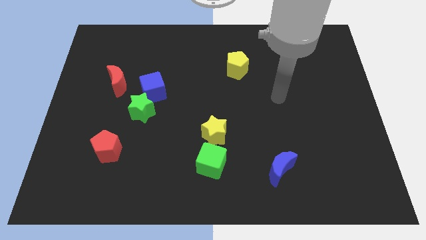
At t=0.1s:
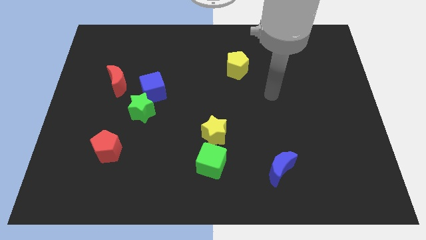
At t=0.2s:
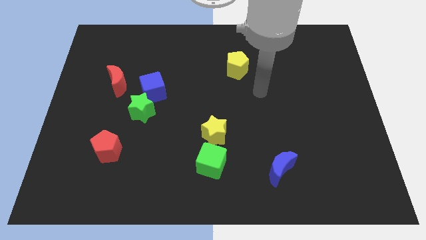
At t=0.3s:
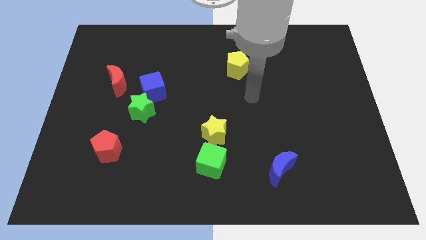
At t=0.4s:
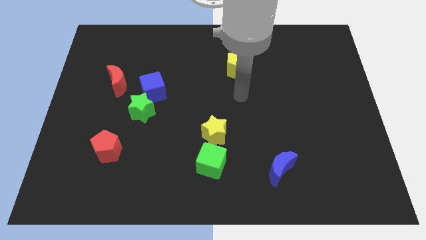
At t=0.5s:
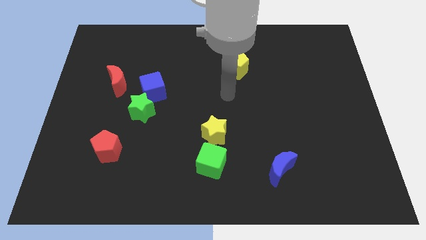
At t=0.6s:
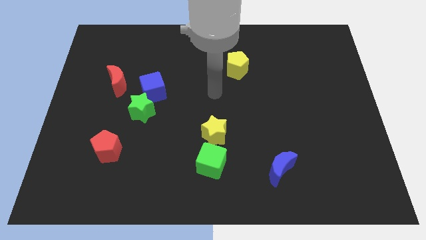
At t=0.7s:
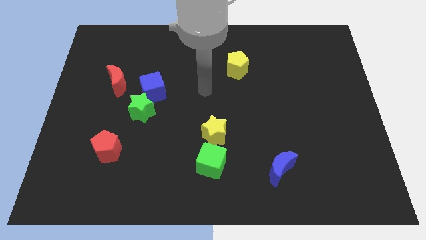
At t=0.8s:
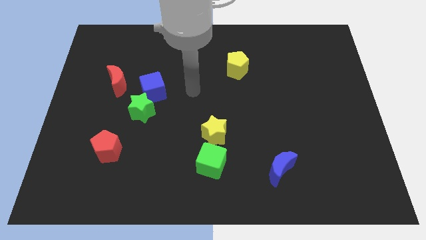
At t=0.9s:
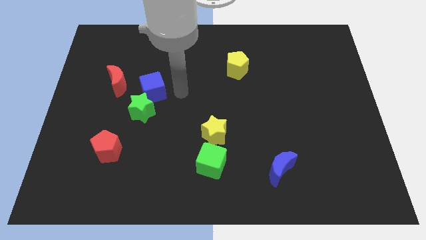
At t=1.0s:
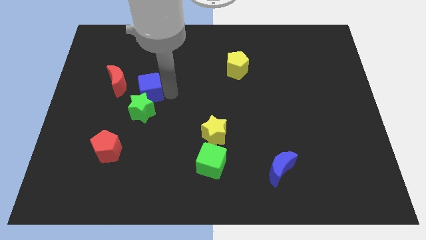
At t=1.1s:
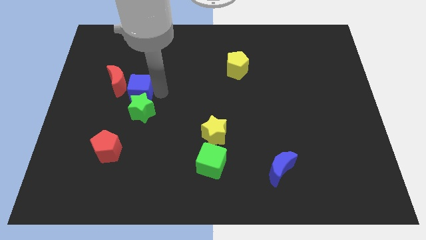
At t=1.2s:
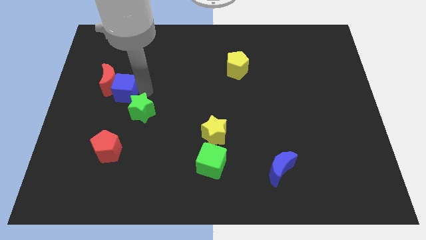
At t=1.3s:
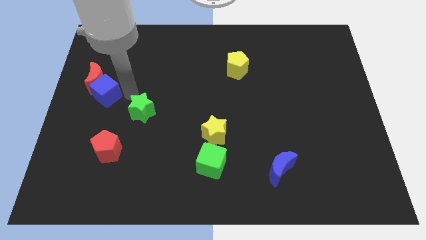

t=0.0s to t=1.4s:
move the green star away from the blue cube

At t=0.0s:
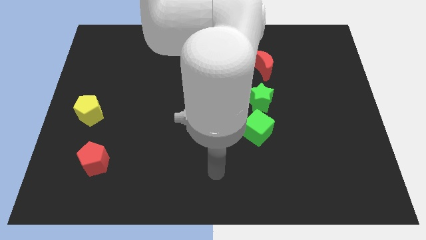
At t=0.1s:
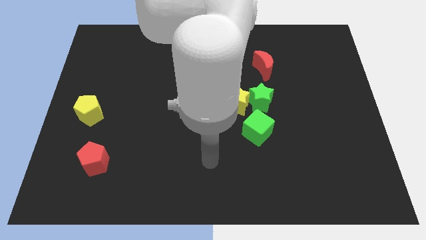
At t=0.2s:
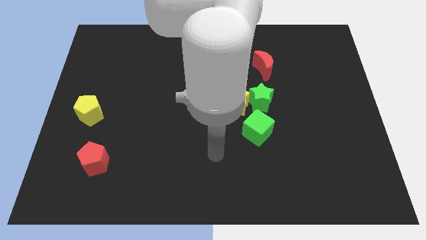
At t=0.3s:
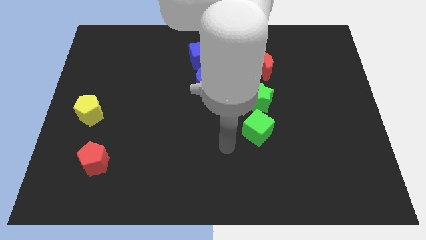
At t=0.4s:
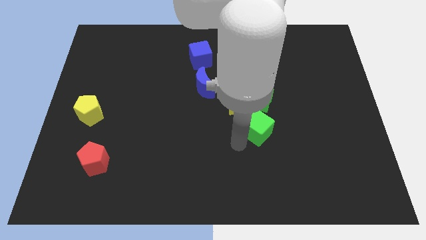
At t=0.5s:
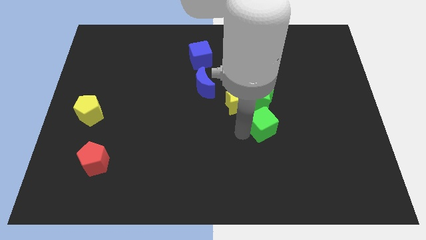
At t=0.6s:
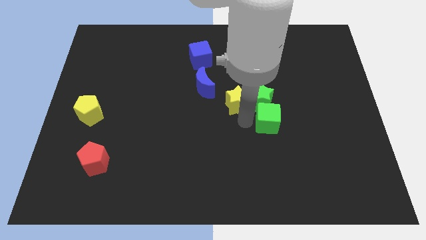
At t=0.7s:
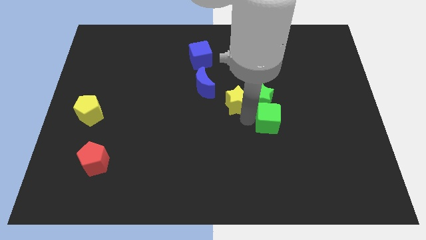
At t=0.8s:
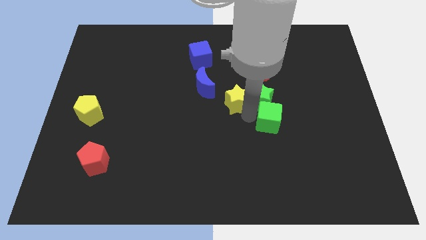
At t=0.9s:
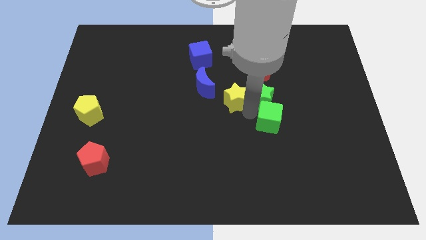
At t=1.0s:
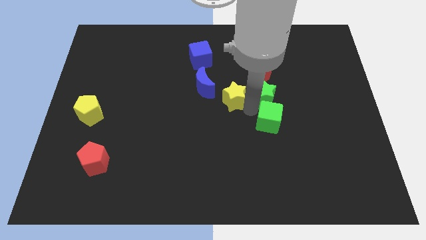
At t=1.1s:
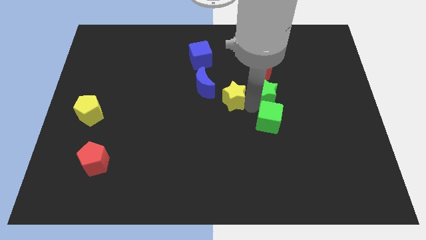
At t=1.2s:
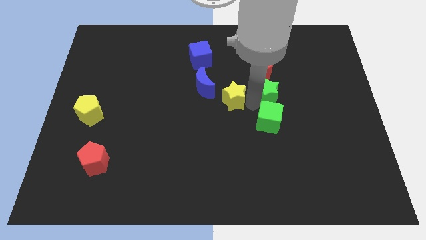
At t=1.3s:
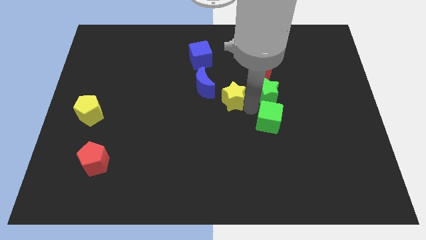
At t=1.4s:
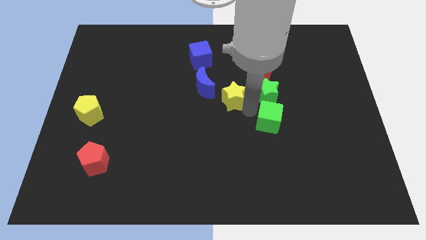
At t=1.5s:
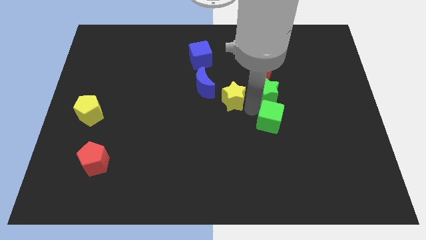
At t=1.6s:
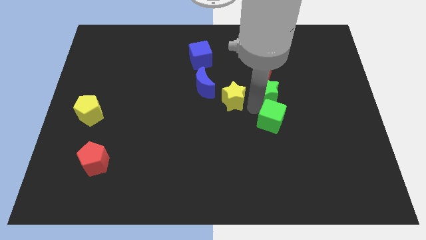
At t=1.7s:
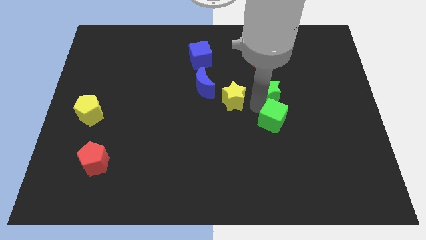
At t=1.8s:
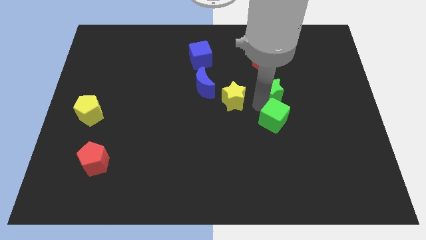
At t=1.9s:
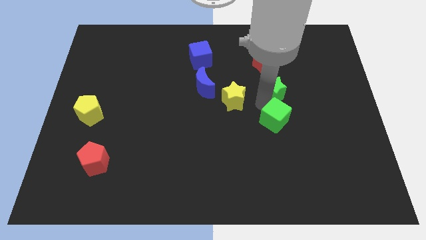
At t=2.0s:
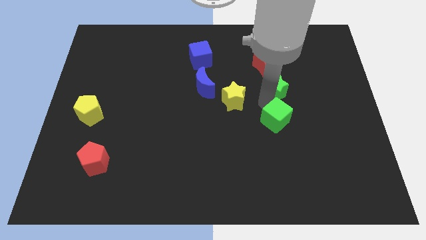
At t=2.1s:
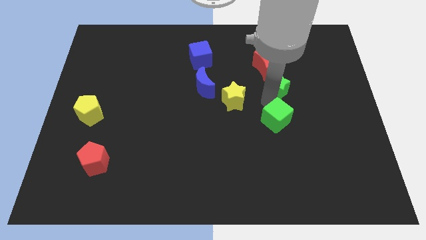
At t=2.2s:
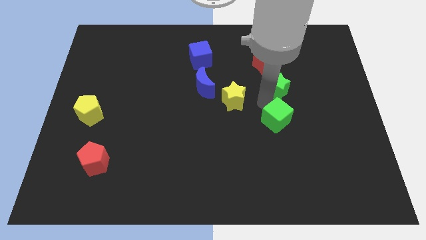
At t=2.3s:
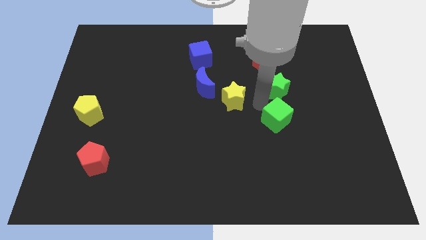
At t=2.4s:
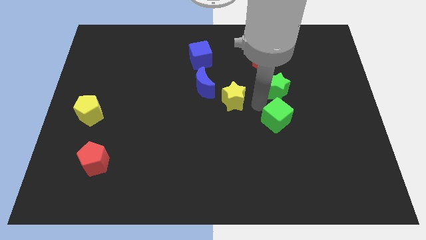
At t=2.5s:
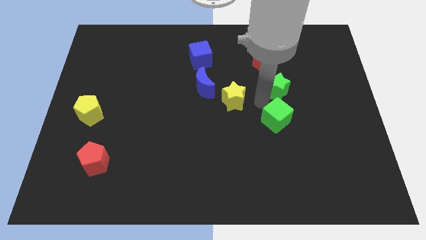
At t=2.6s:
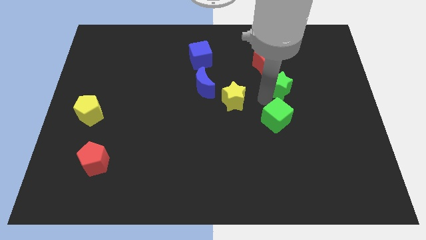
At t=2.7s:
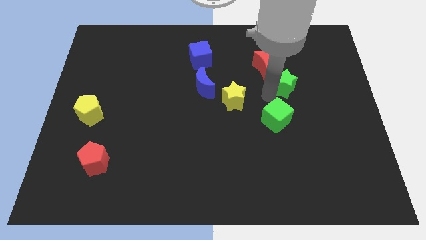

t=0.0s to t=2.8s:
pull the green star apart from the yellow star and green cube

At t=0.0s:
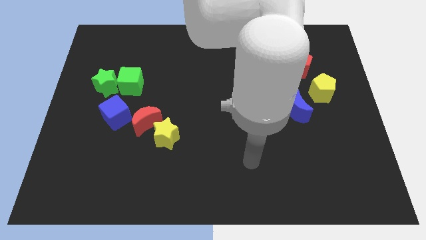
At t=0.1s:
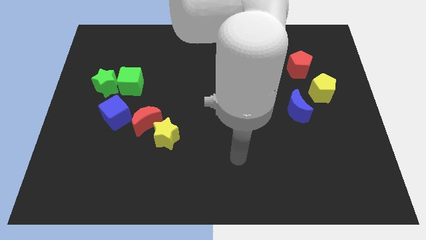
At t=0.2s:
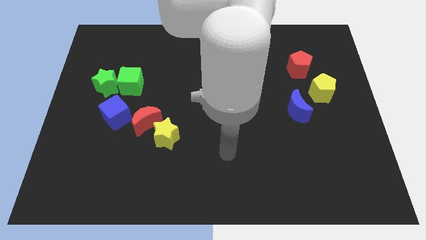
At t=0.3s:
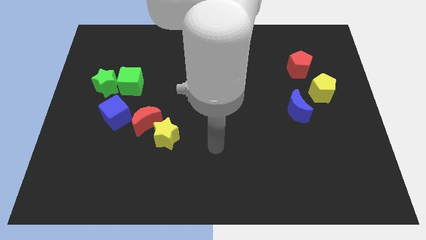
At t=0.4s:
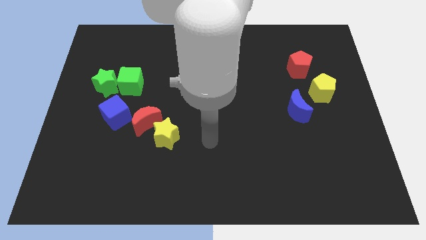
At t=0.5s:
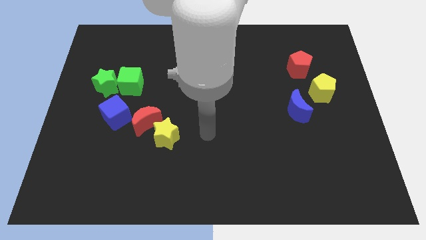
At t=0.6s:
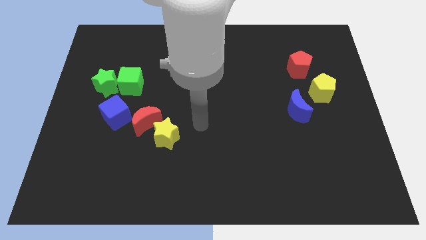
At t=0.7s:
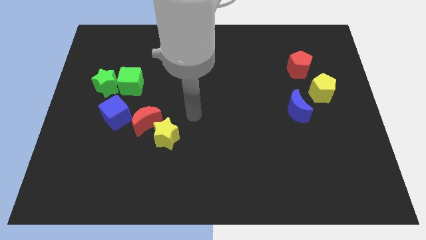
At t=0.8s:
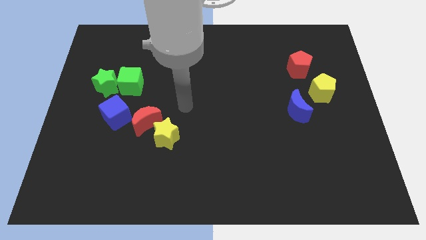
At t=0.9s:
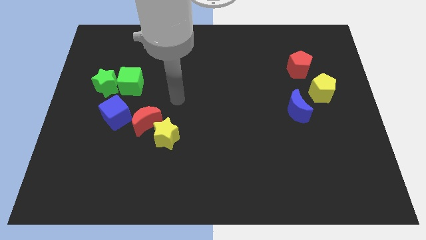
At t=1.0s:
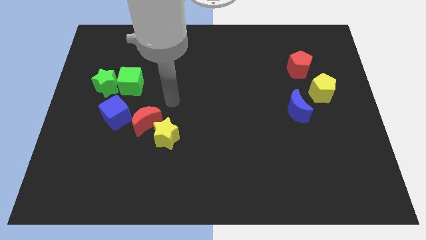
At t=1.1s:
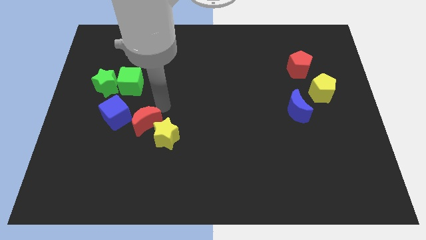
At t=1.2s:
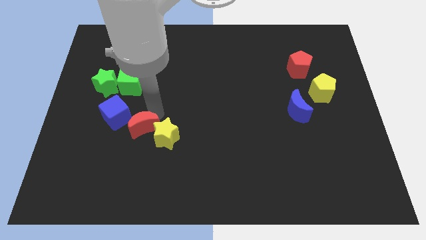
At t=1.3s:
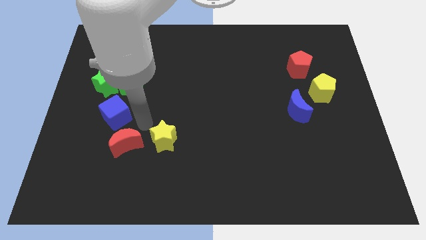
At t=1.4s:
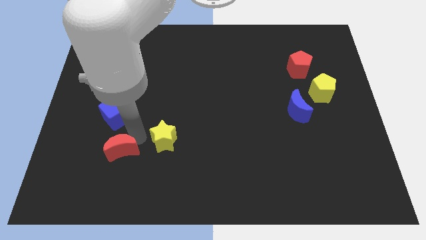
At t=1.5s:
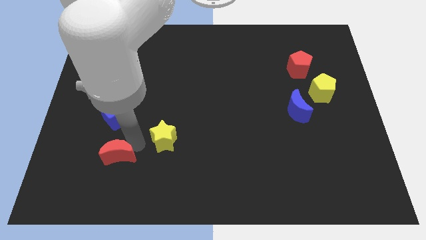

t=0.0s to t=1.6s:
separate the yellow star from the red moon

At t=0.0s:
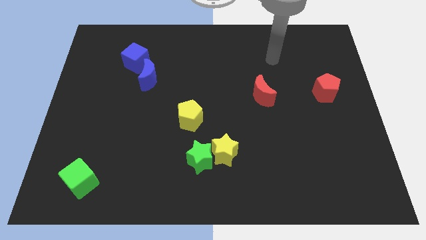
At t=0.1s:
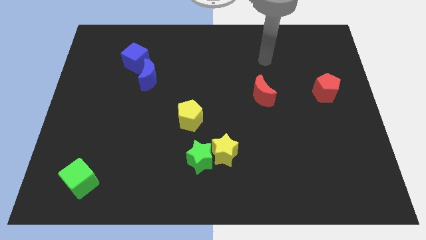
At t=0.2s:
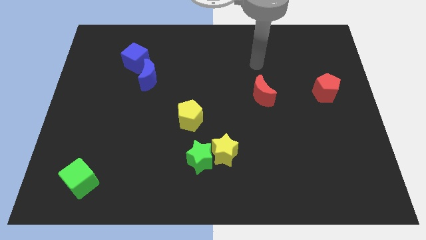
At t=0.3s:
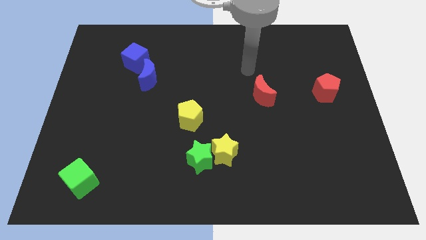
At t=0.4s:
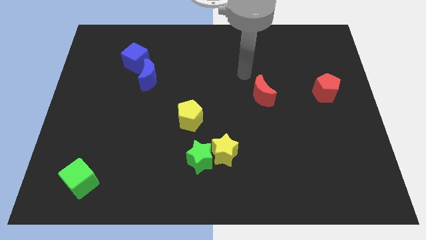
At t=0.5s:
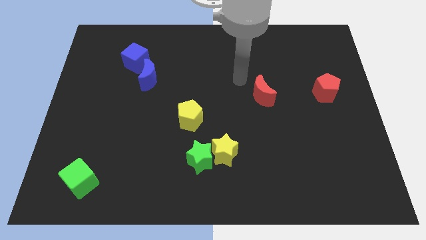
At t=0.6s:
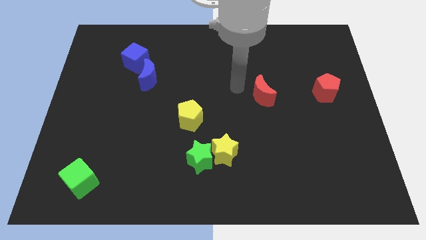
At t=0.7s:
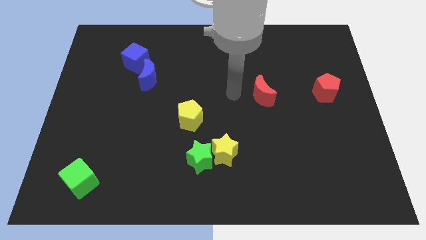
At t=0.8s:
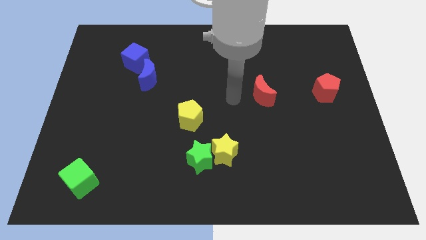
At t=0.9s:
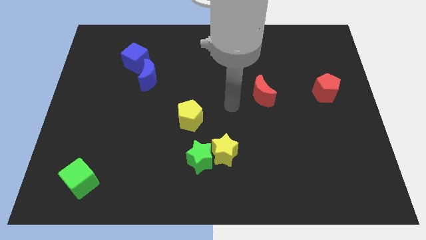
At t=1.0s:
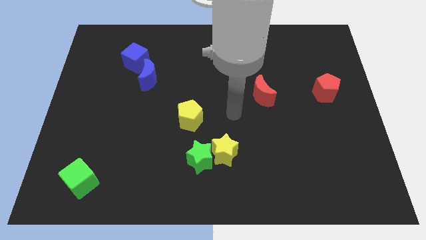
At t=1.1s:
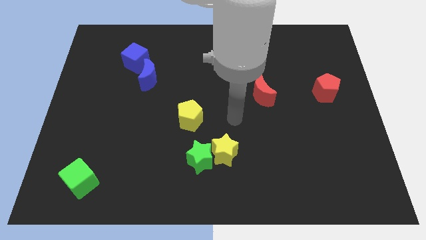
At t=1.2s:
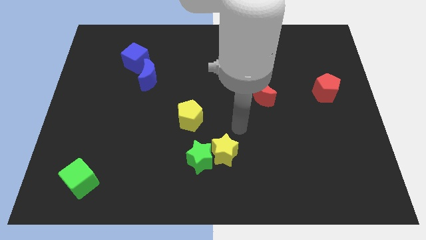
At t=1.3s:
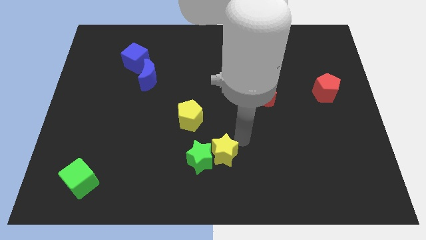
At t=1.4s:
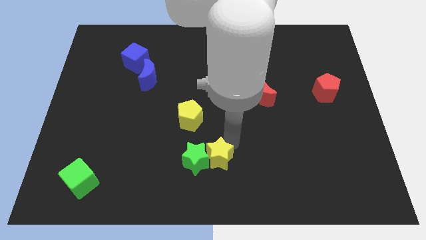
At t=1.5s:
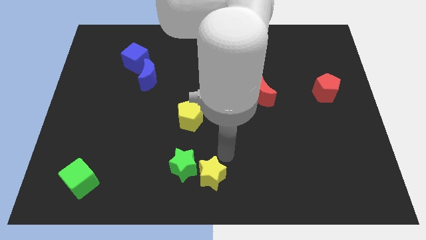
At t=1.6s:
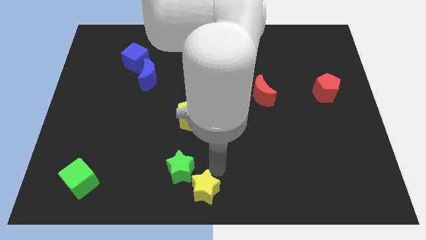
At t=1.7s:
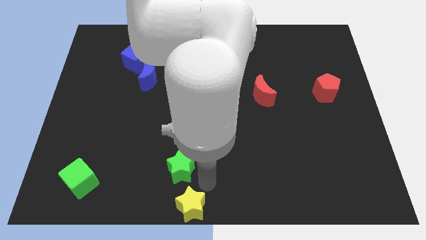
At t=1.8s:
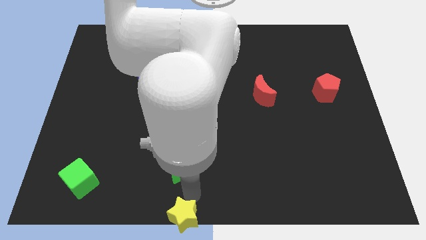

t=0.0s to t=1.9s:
pull the green star apart from the yellow star

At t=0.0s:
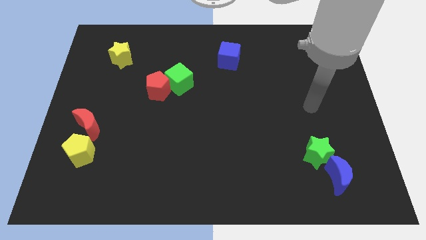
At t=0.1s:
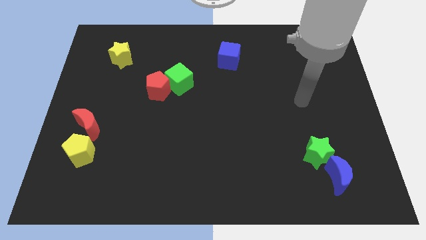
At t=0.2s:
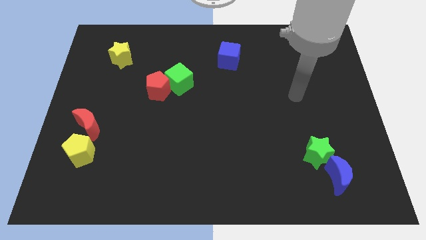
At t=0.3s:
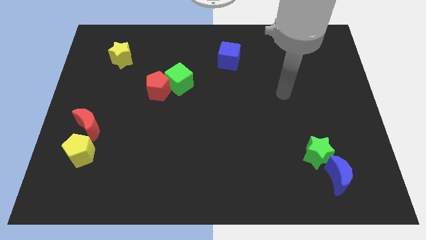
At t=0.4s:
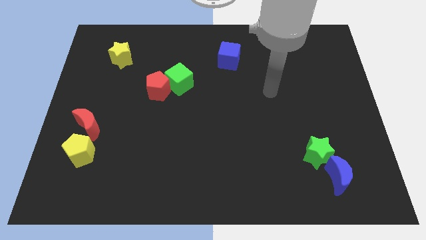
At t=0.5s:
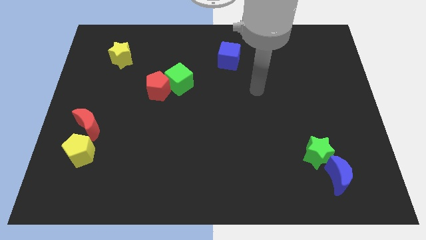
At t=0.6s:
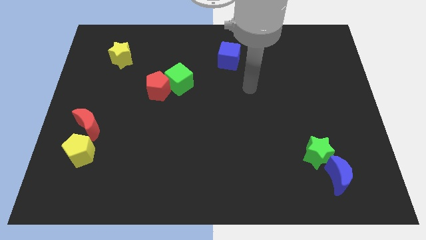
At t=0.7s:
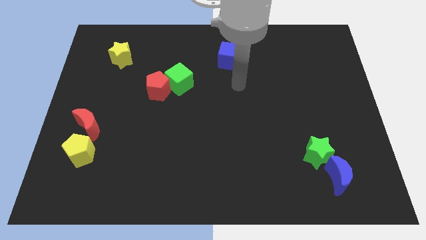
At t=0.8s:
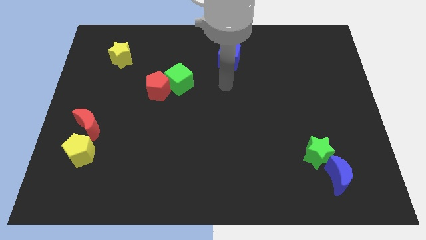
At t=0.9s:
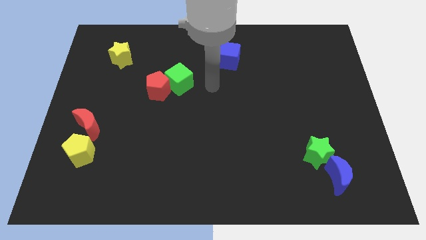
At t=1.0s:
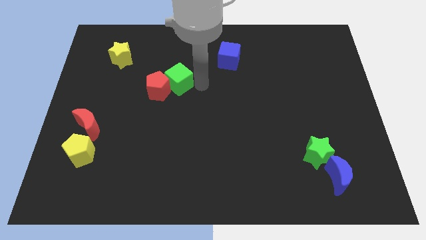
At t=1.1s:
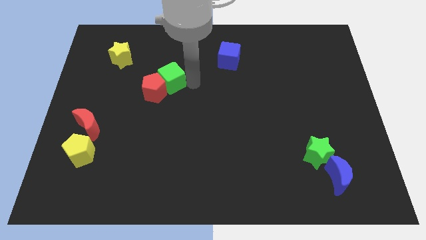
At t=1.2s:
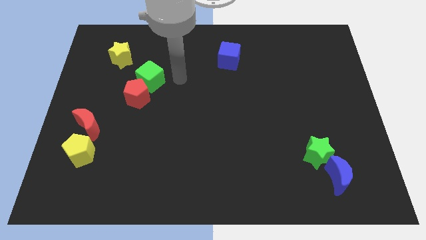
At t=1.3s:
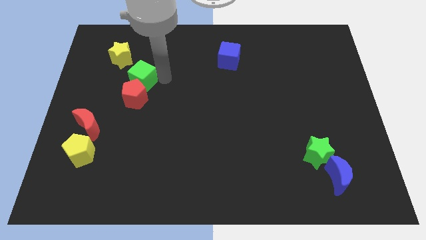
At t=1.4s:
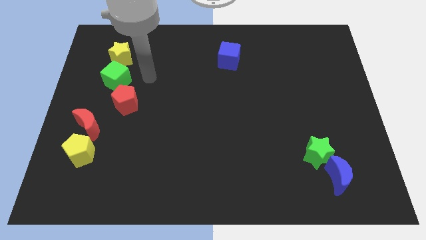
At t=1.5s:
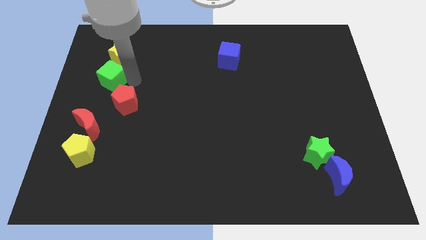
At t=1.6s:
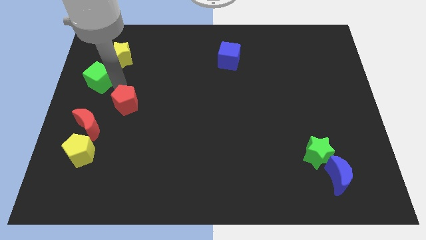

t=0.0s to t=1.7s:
move the red pentagon away from the green cube
